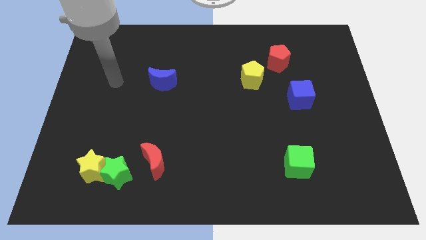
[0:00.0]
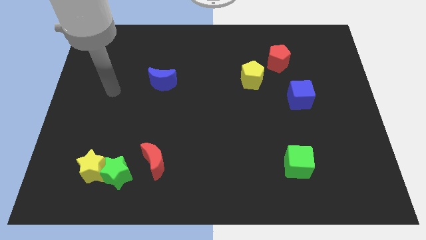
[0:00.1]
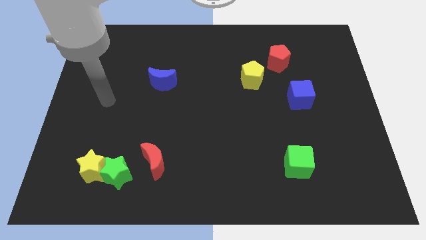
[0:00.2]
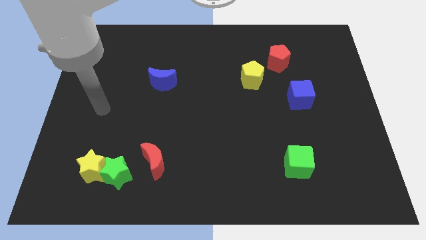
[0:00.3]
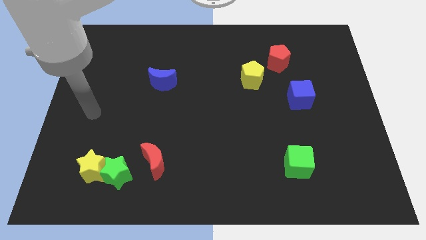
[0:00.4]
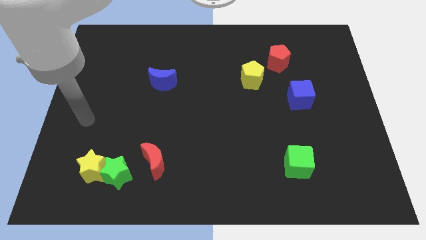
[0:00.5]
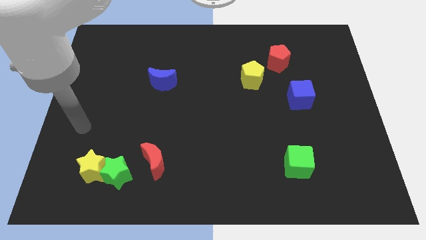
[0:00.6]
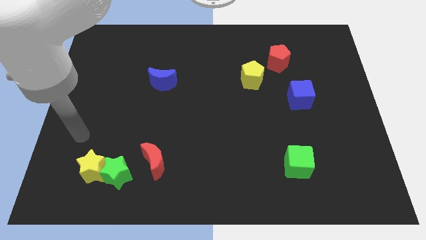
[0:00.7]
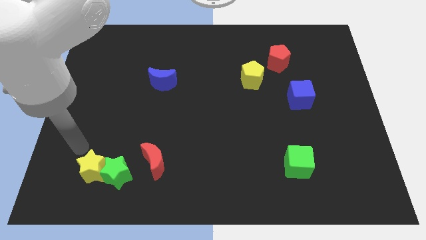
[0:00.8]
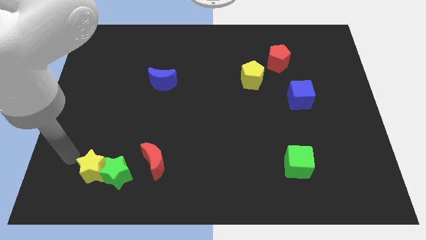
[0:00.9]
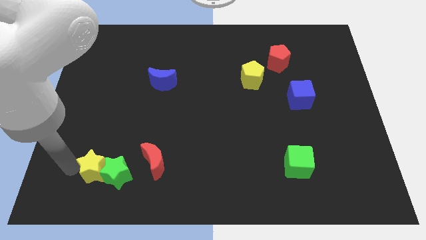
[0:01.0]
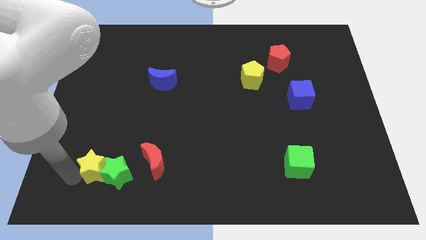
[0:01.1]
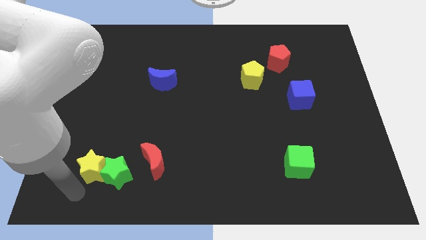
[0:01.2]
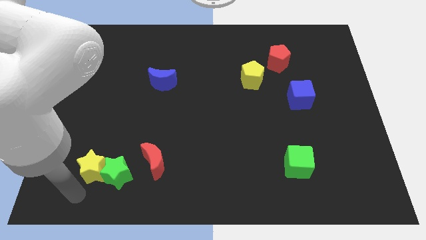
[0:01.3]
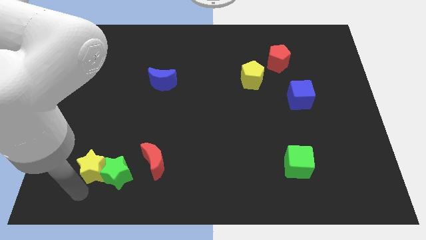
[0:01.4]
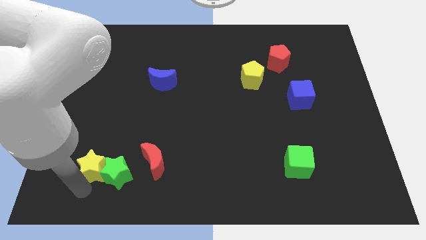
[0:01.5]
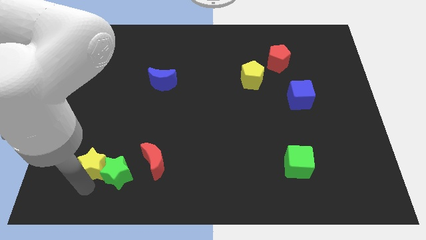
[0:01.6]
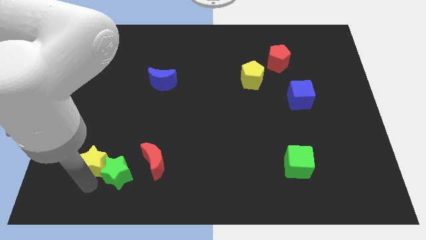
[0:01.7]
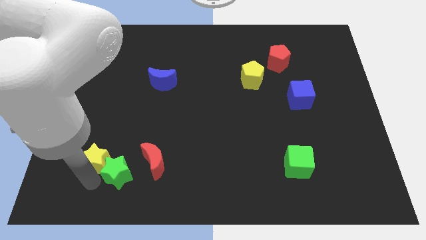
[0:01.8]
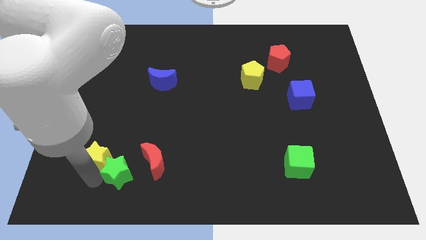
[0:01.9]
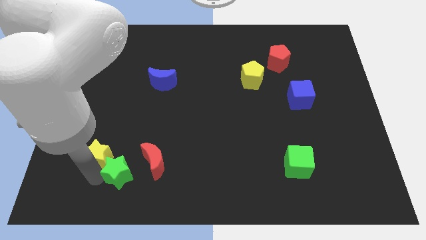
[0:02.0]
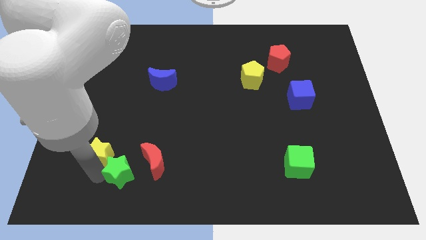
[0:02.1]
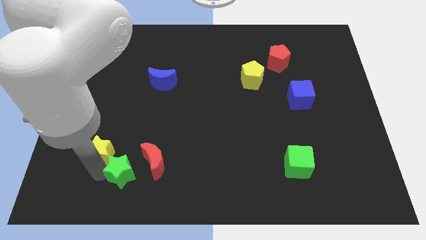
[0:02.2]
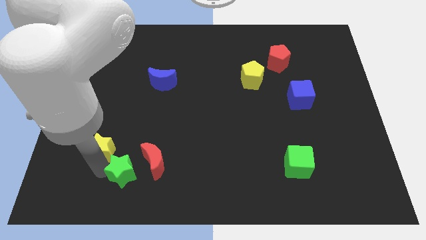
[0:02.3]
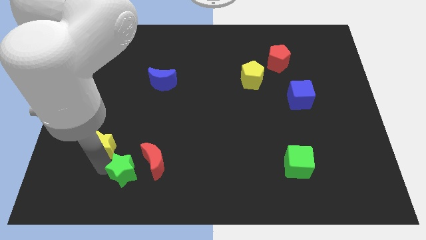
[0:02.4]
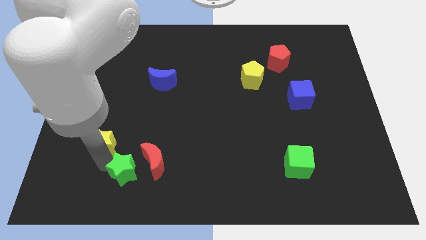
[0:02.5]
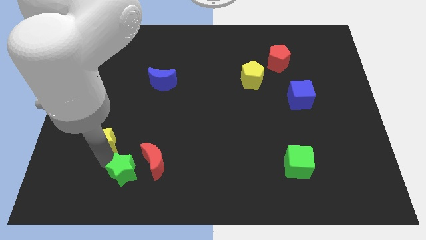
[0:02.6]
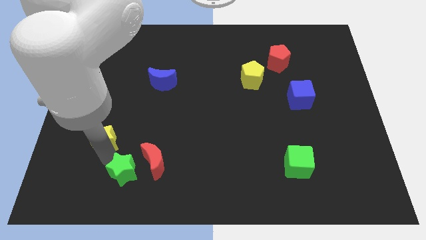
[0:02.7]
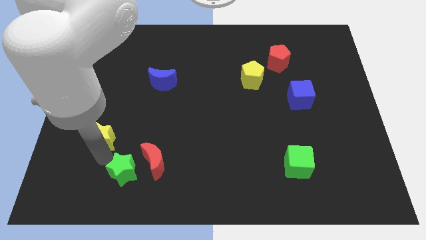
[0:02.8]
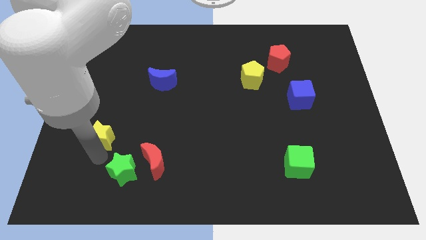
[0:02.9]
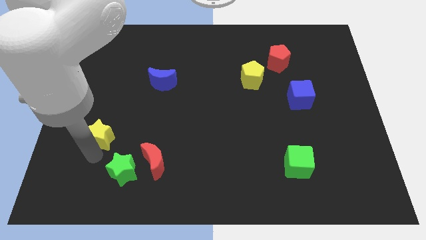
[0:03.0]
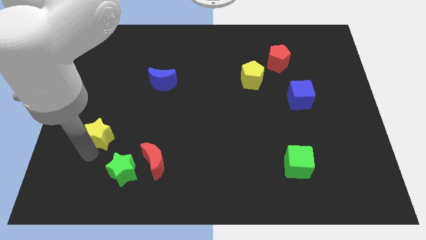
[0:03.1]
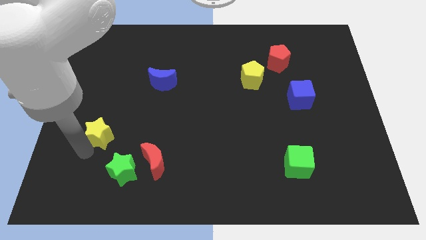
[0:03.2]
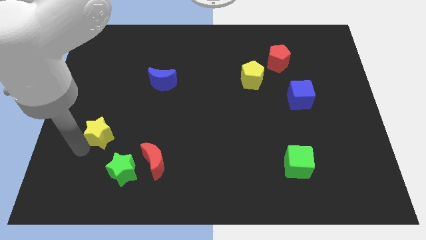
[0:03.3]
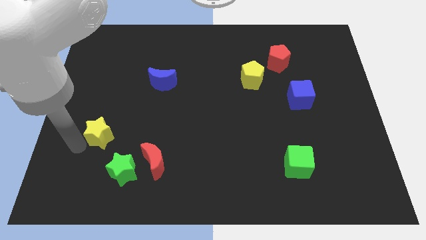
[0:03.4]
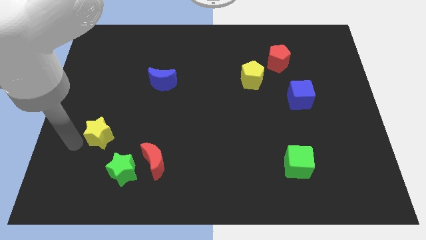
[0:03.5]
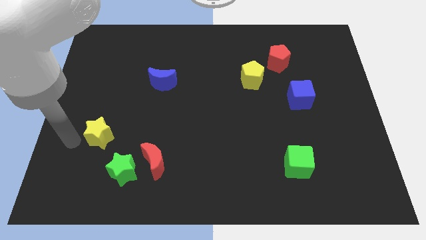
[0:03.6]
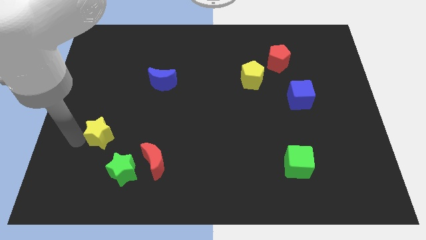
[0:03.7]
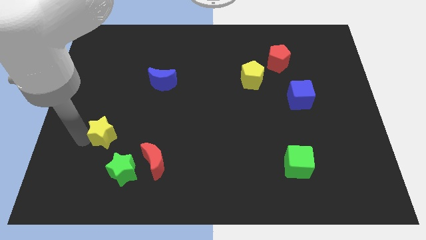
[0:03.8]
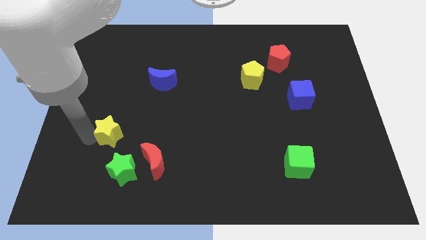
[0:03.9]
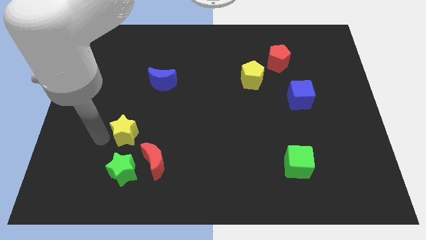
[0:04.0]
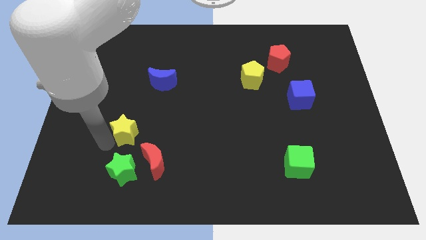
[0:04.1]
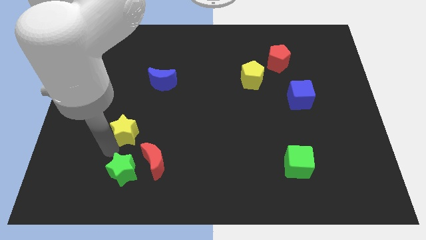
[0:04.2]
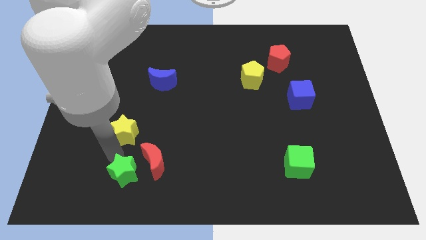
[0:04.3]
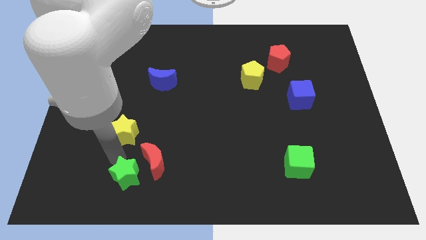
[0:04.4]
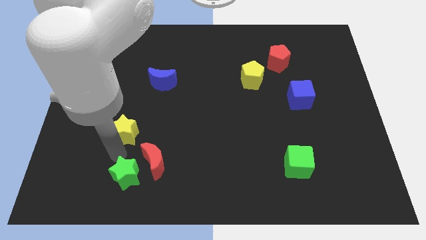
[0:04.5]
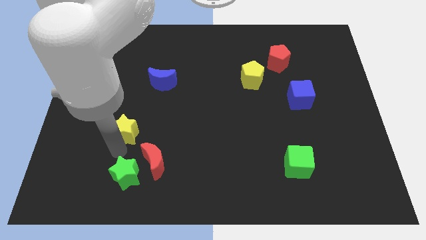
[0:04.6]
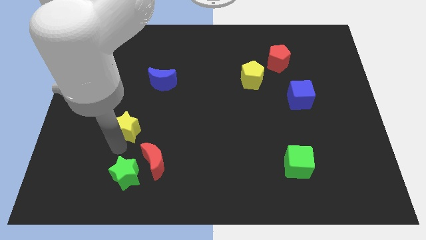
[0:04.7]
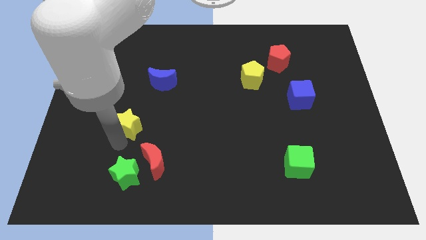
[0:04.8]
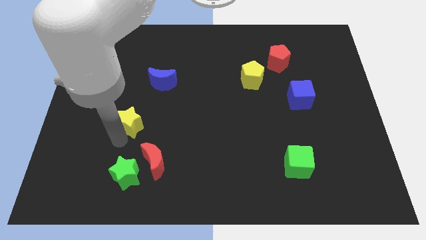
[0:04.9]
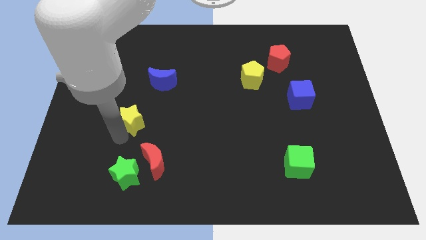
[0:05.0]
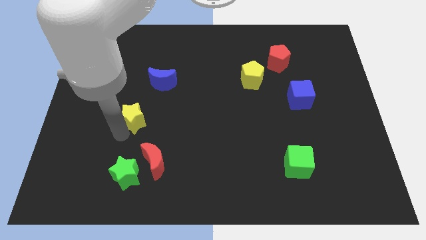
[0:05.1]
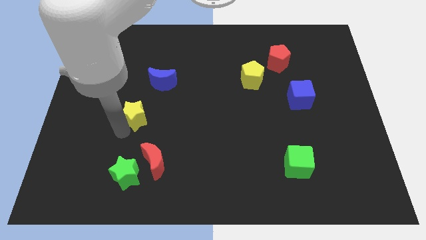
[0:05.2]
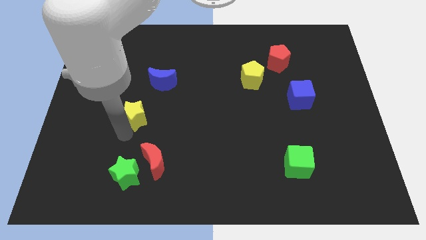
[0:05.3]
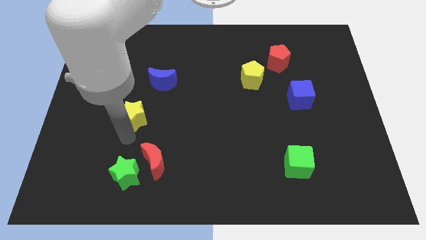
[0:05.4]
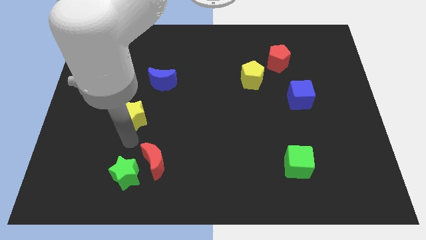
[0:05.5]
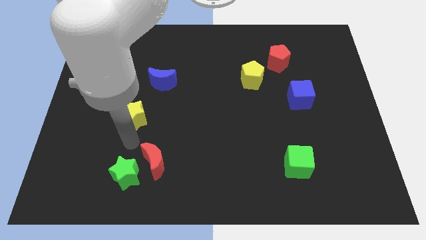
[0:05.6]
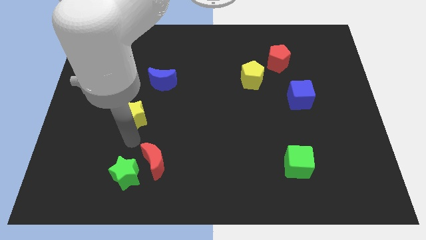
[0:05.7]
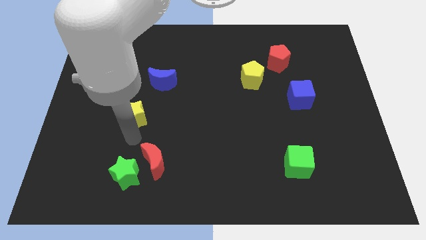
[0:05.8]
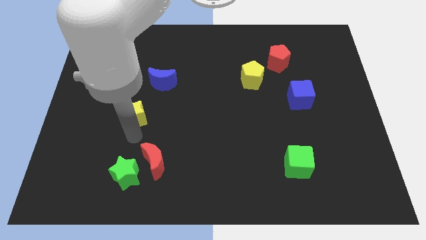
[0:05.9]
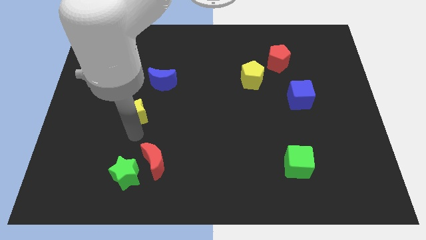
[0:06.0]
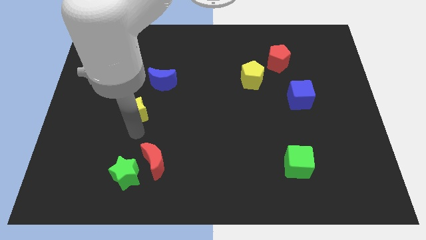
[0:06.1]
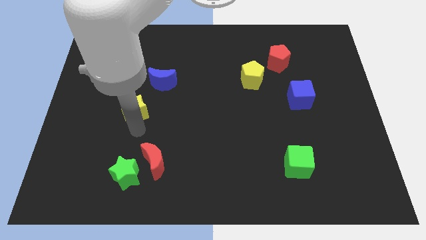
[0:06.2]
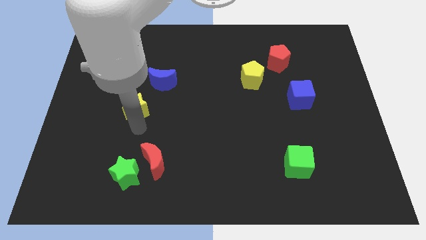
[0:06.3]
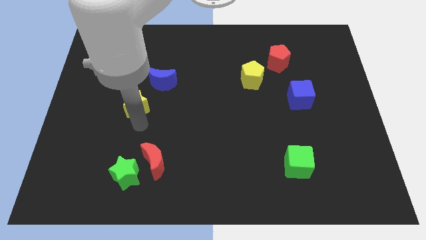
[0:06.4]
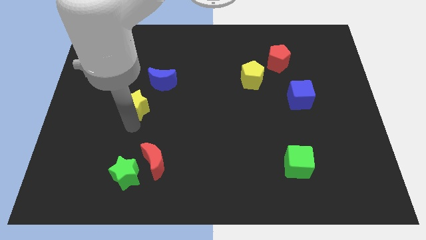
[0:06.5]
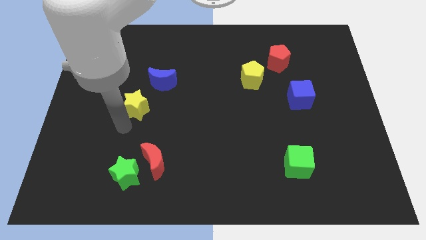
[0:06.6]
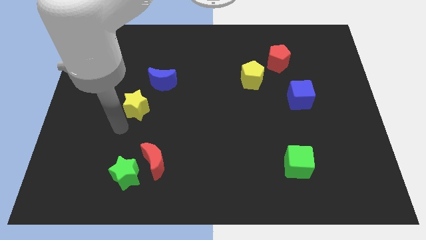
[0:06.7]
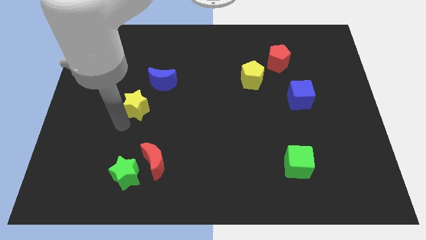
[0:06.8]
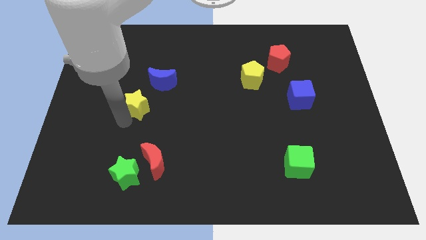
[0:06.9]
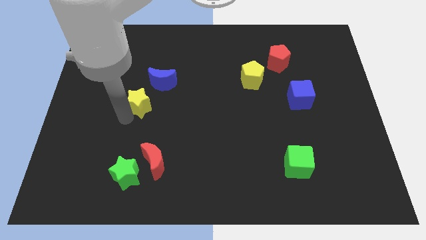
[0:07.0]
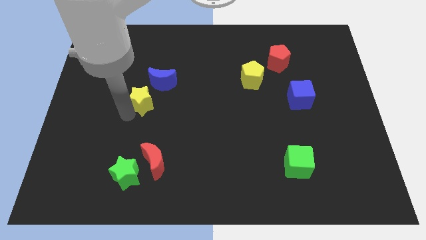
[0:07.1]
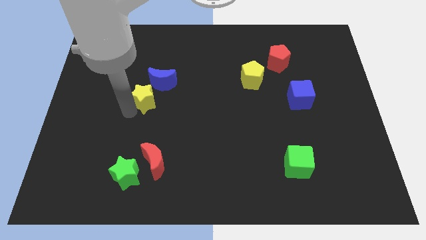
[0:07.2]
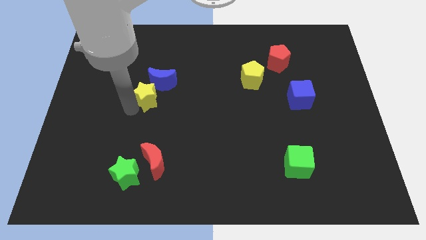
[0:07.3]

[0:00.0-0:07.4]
put the yellow star to the blue moon
